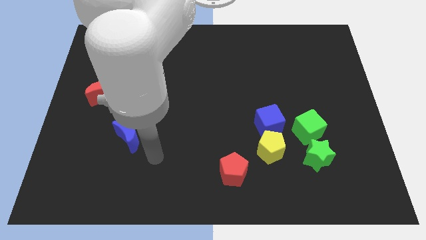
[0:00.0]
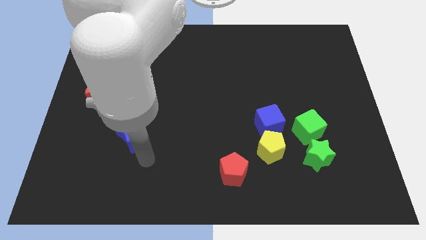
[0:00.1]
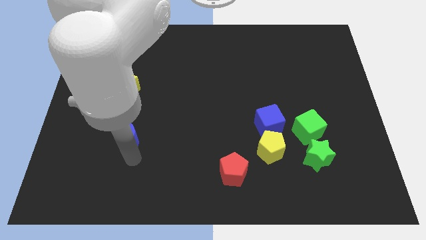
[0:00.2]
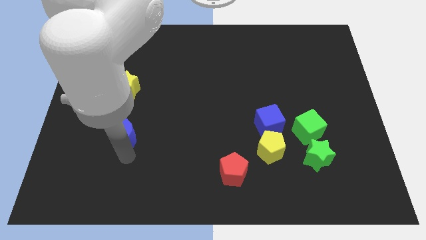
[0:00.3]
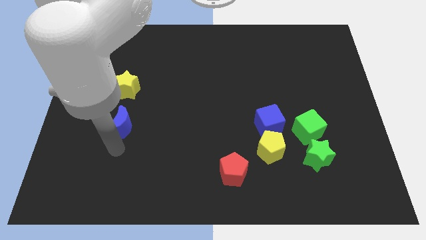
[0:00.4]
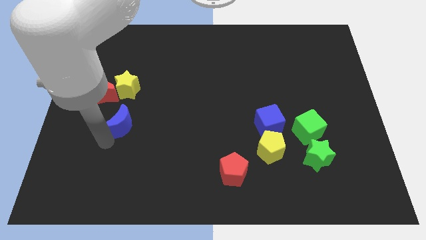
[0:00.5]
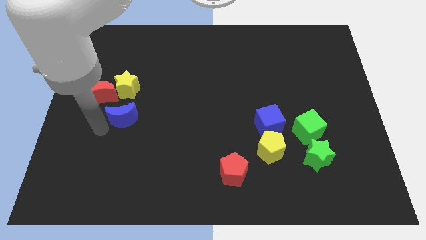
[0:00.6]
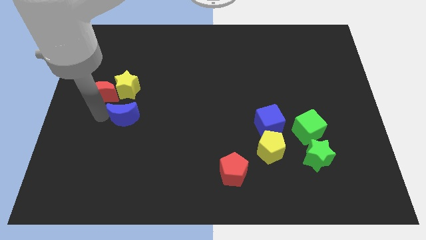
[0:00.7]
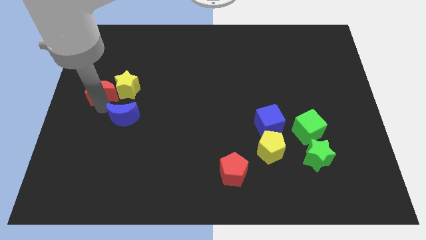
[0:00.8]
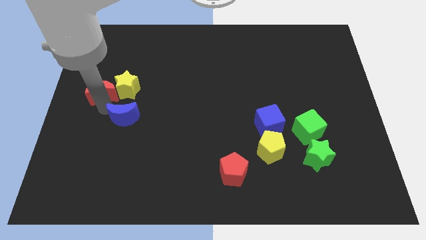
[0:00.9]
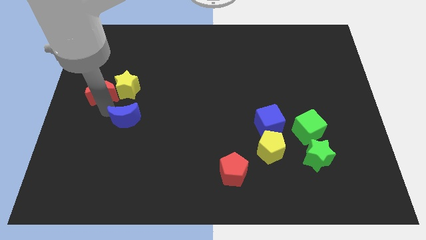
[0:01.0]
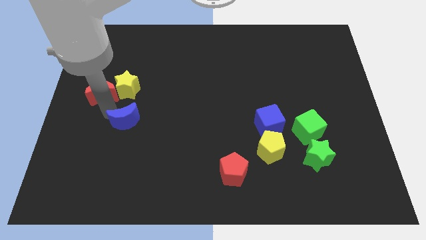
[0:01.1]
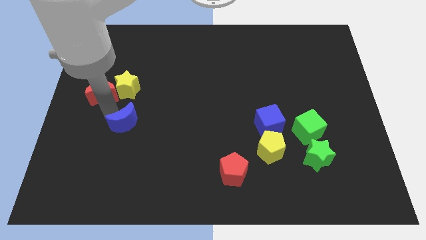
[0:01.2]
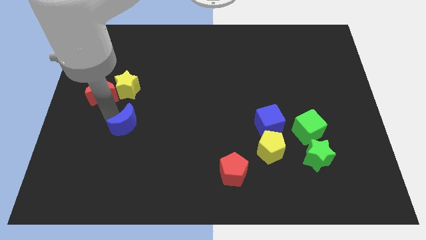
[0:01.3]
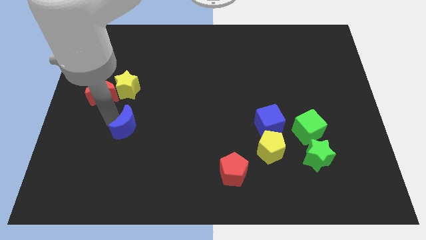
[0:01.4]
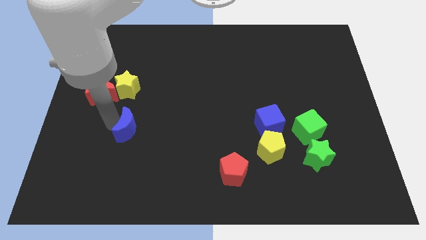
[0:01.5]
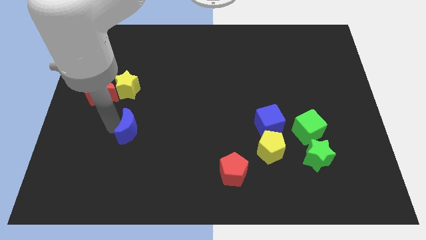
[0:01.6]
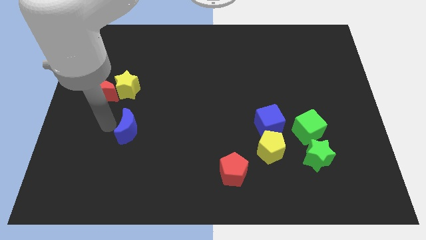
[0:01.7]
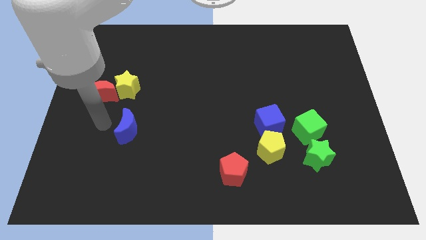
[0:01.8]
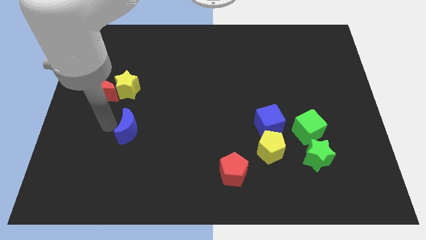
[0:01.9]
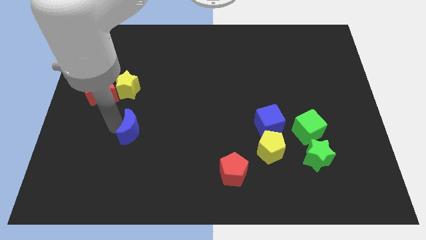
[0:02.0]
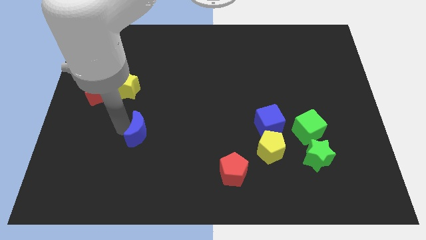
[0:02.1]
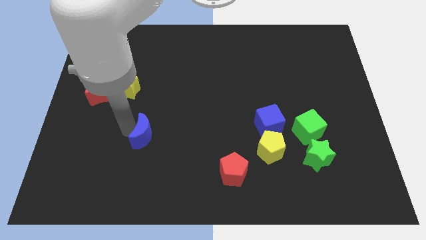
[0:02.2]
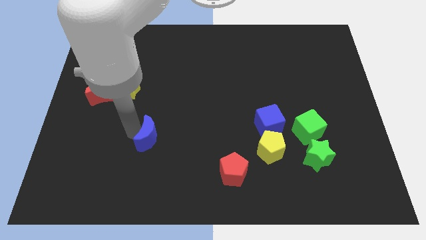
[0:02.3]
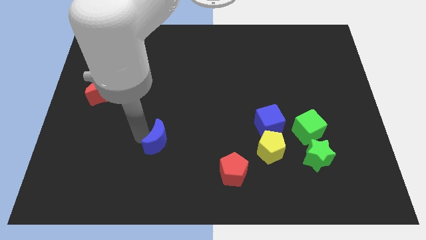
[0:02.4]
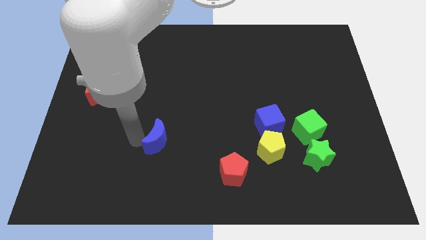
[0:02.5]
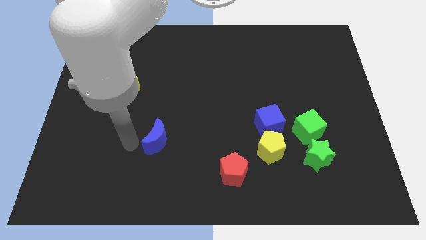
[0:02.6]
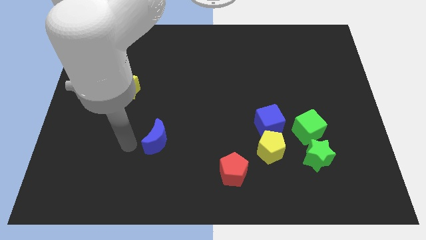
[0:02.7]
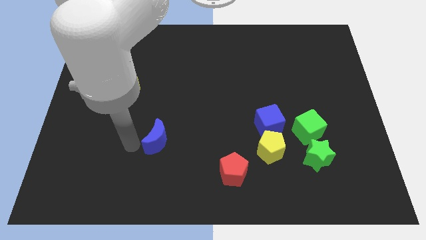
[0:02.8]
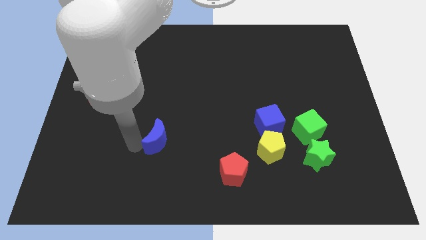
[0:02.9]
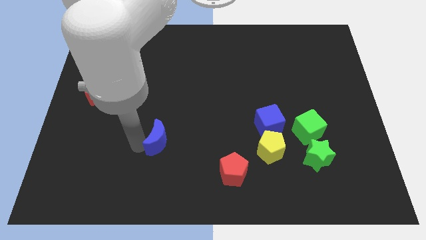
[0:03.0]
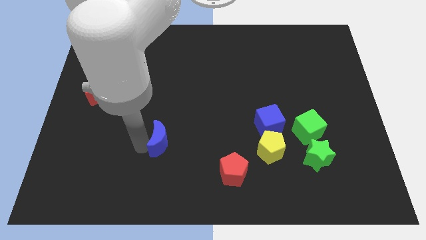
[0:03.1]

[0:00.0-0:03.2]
slightly move the blue moon right

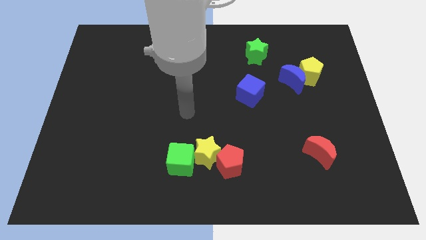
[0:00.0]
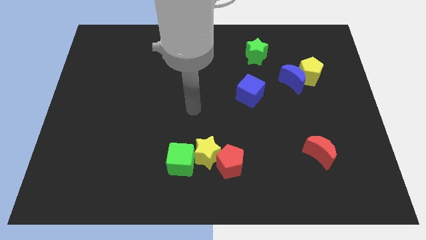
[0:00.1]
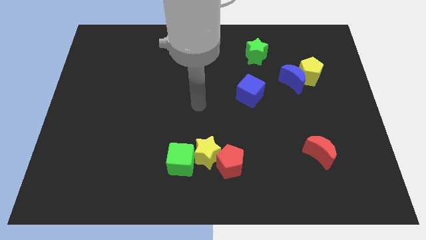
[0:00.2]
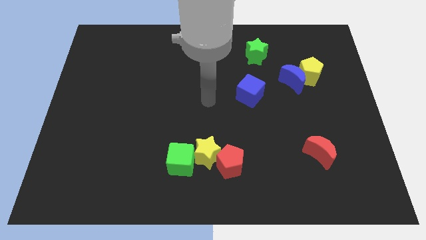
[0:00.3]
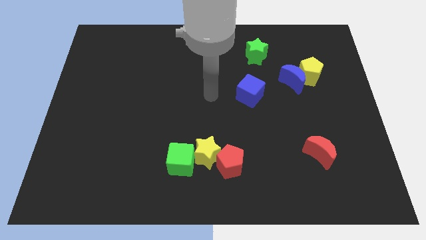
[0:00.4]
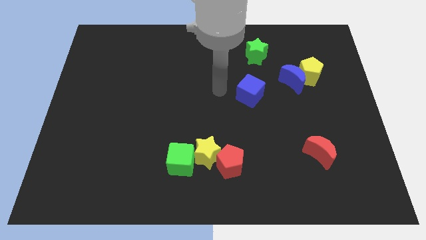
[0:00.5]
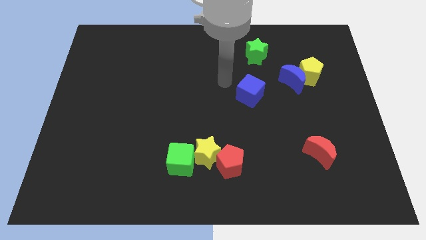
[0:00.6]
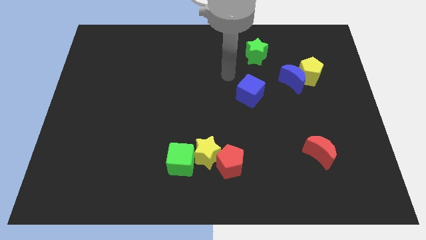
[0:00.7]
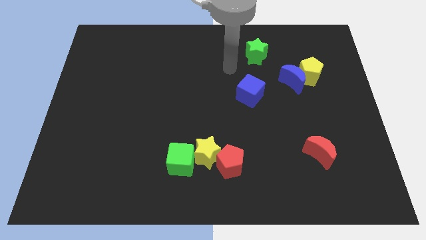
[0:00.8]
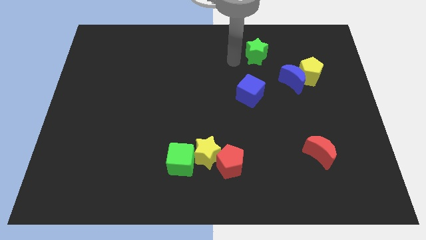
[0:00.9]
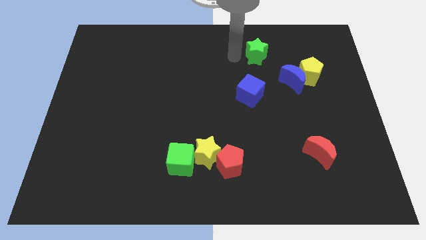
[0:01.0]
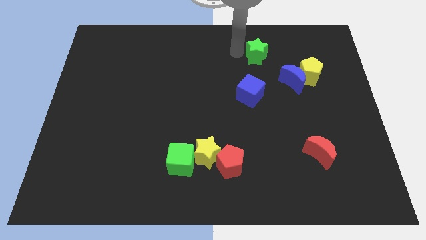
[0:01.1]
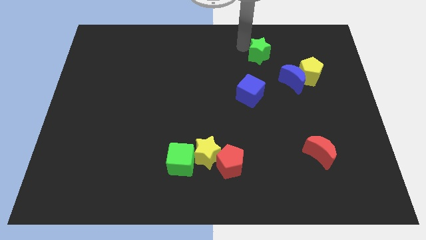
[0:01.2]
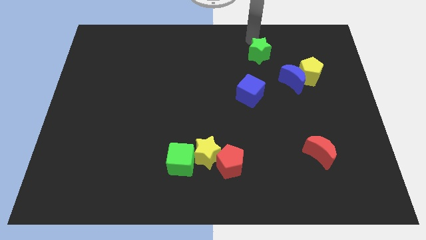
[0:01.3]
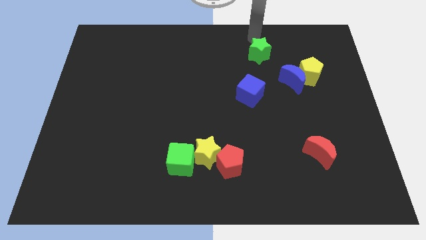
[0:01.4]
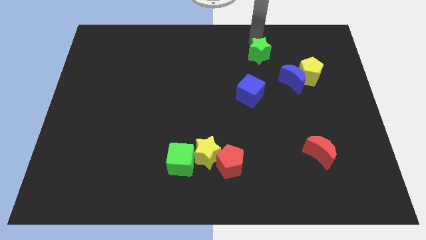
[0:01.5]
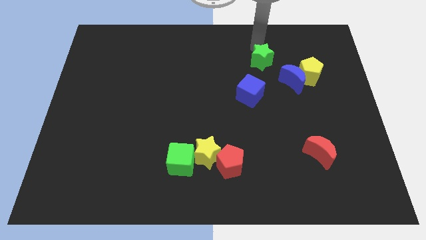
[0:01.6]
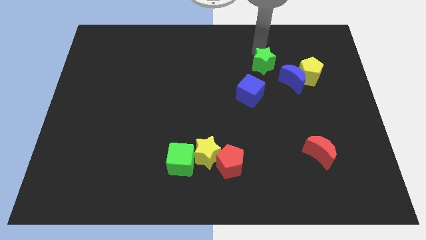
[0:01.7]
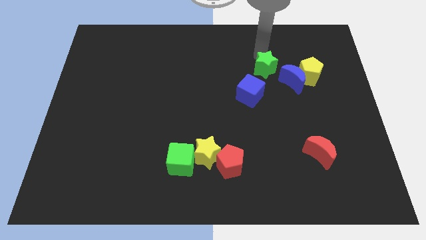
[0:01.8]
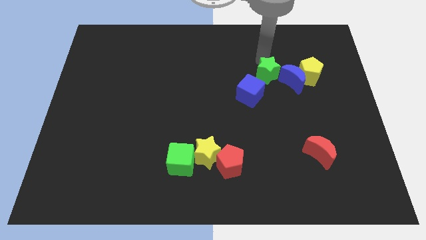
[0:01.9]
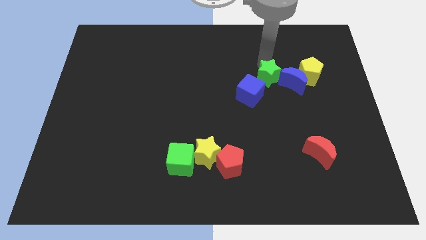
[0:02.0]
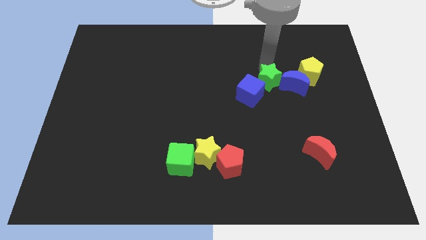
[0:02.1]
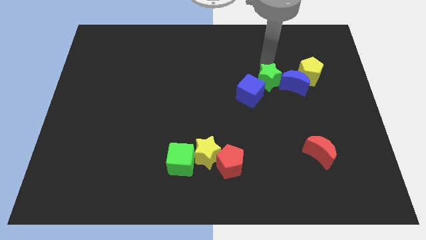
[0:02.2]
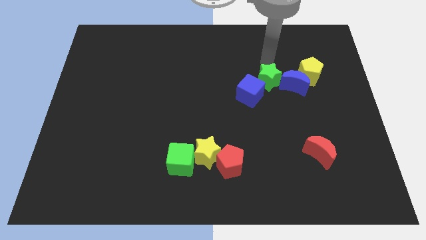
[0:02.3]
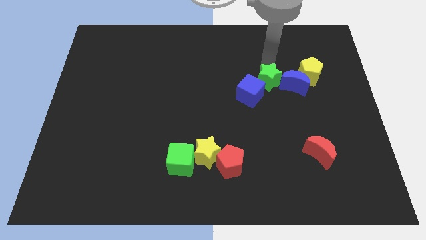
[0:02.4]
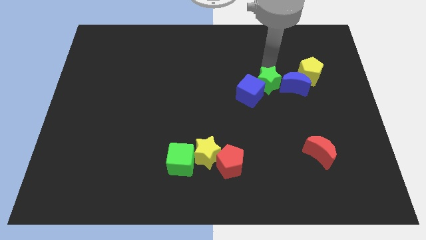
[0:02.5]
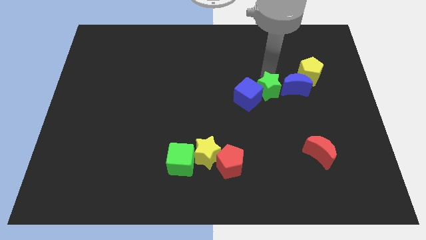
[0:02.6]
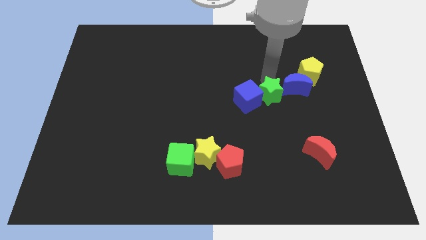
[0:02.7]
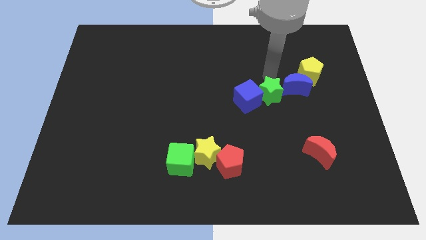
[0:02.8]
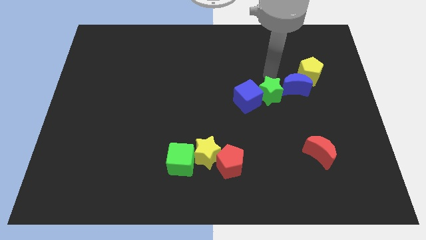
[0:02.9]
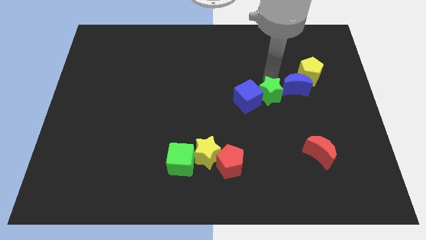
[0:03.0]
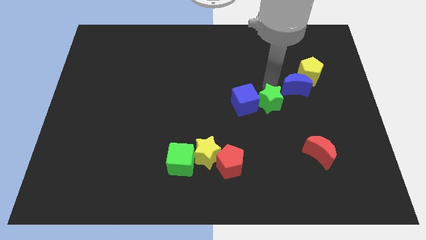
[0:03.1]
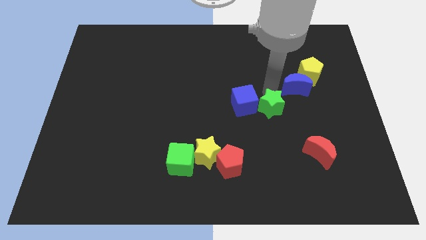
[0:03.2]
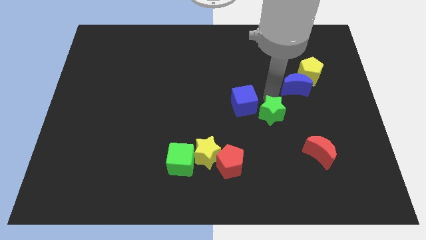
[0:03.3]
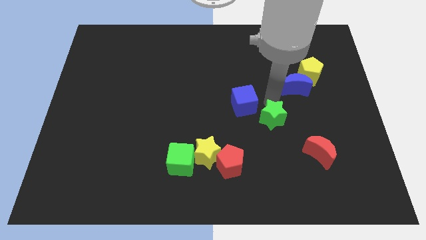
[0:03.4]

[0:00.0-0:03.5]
move the green star downwards

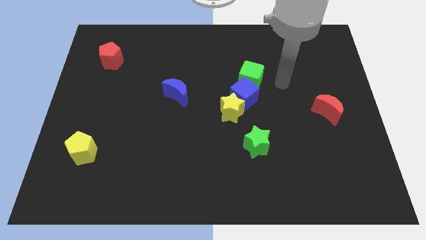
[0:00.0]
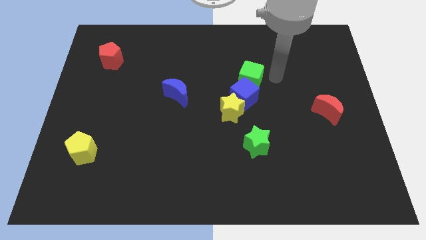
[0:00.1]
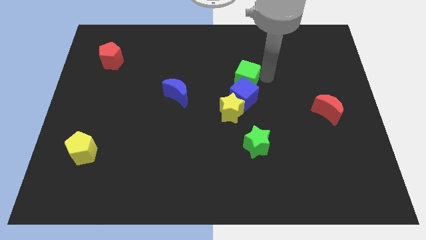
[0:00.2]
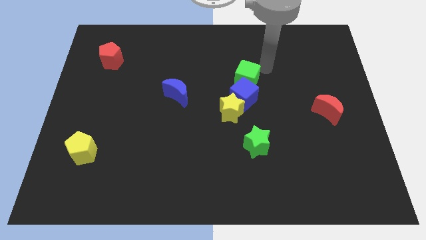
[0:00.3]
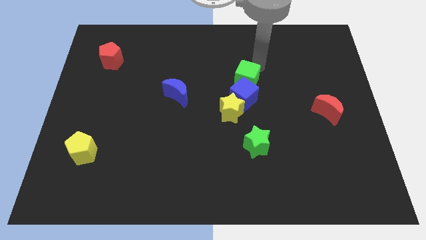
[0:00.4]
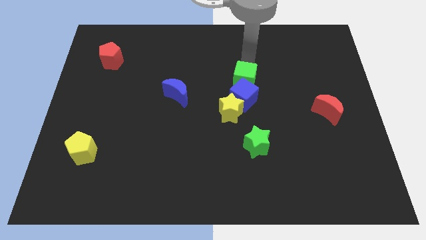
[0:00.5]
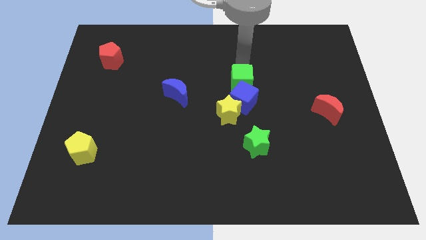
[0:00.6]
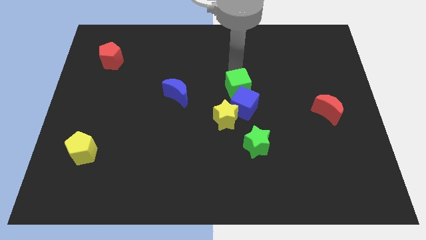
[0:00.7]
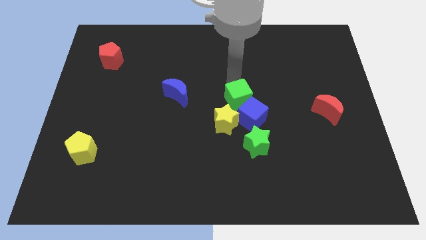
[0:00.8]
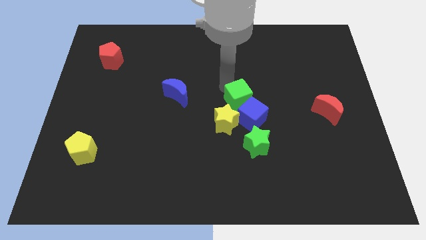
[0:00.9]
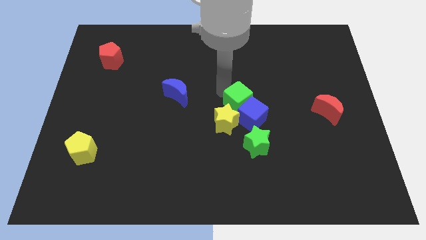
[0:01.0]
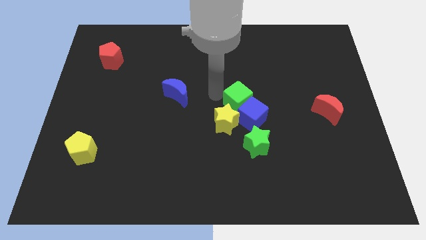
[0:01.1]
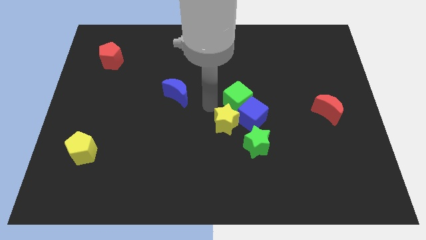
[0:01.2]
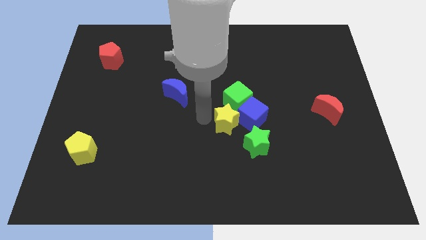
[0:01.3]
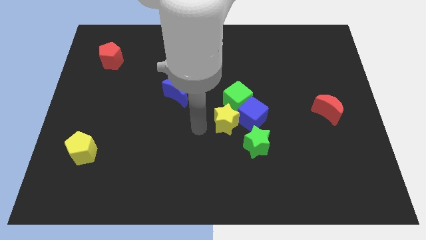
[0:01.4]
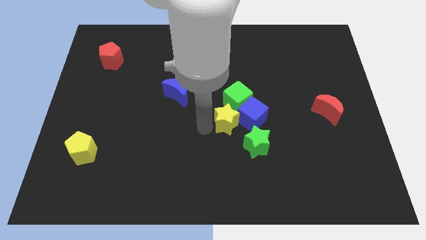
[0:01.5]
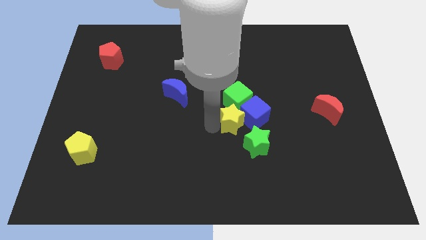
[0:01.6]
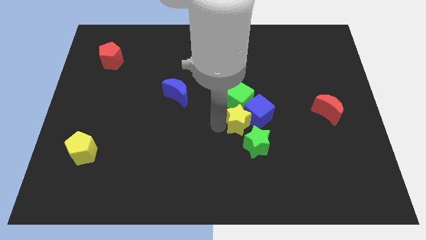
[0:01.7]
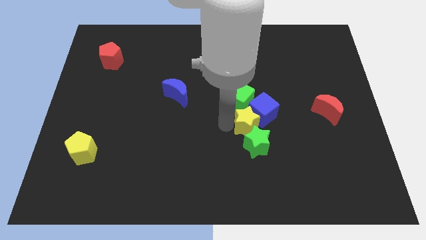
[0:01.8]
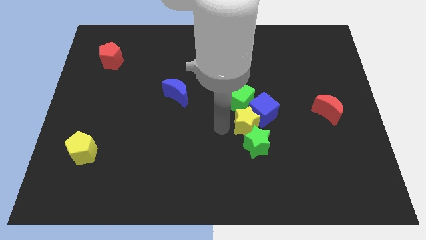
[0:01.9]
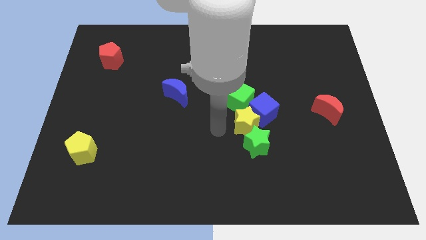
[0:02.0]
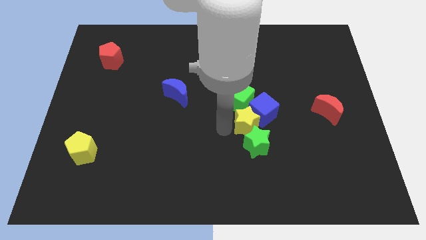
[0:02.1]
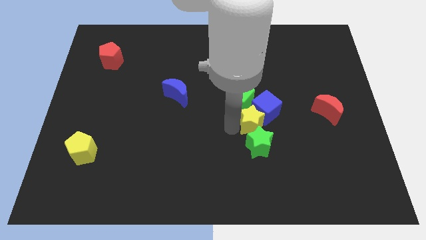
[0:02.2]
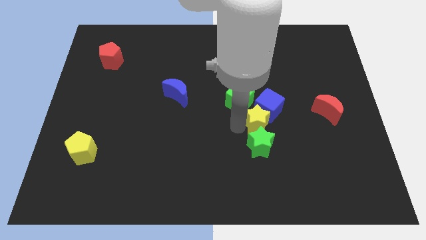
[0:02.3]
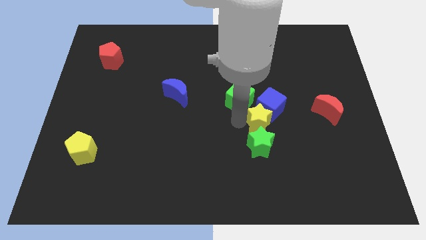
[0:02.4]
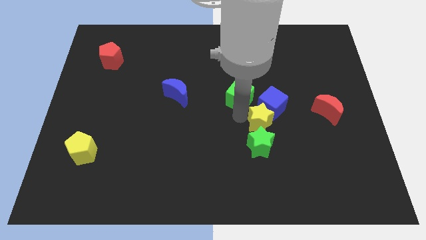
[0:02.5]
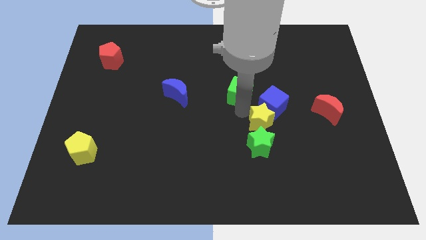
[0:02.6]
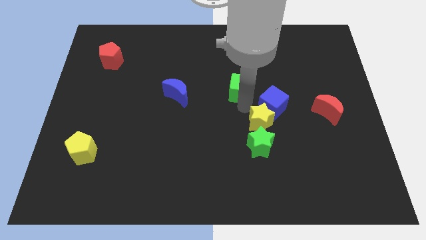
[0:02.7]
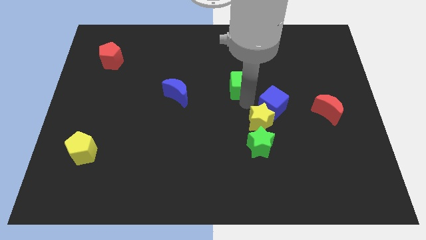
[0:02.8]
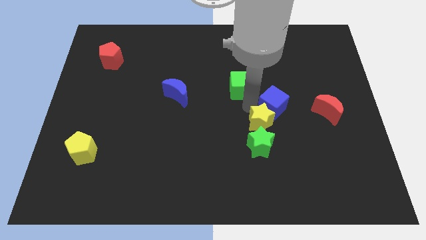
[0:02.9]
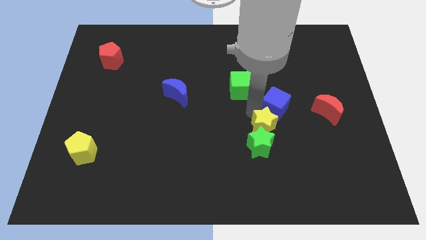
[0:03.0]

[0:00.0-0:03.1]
slide the yellow star down and to the right diagonally a little bit
